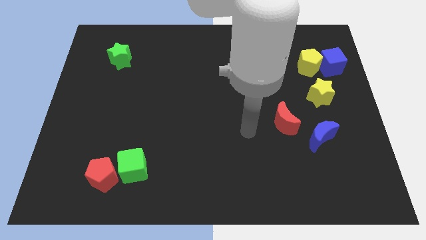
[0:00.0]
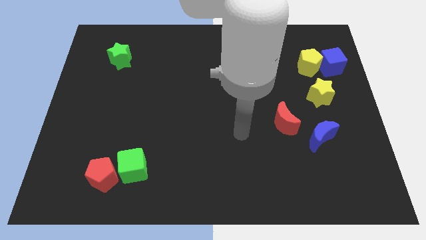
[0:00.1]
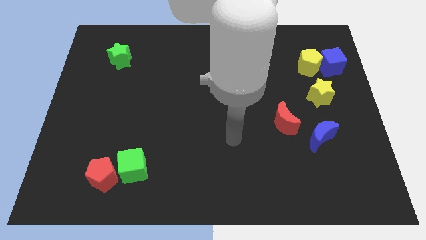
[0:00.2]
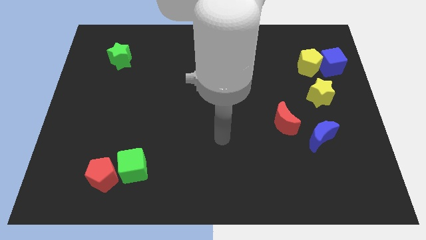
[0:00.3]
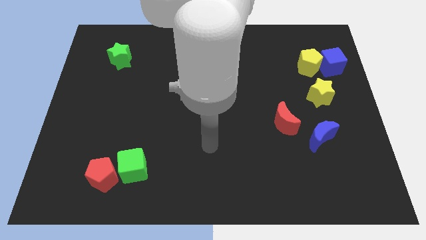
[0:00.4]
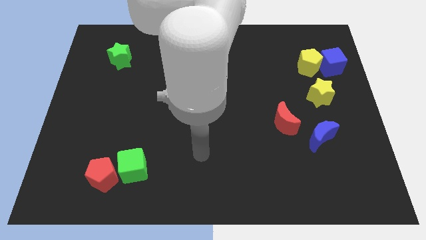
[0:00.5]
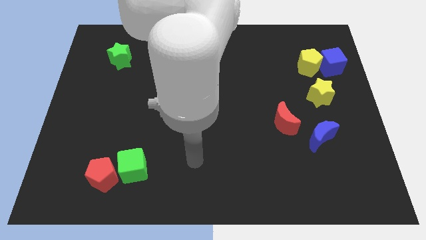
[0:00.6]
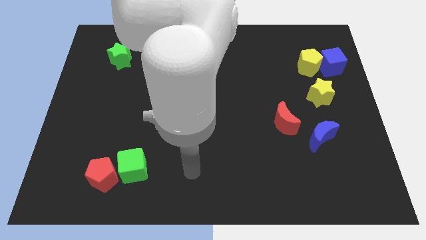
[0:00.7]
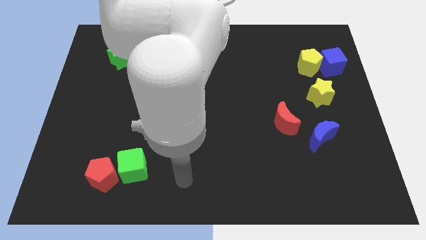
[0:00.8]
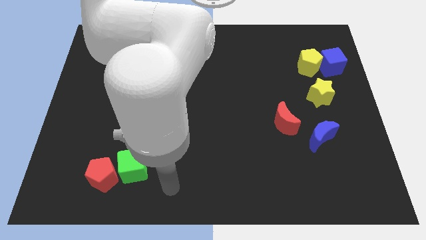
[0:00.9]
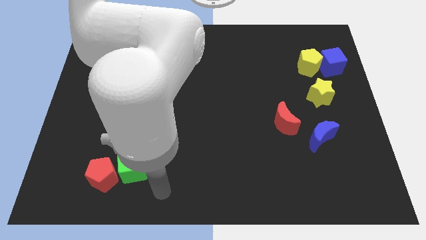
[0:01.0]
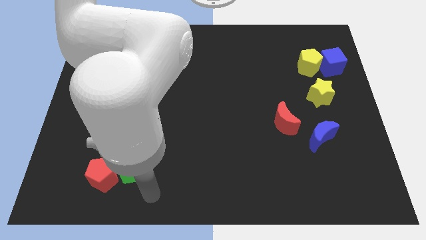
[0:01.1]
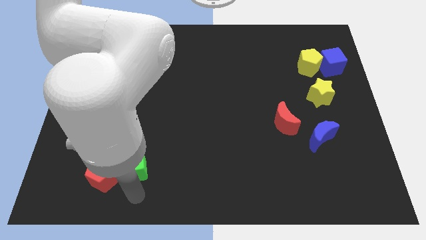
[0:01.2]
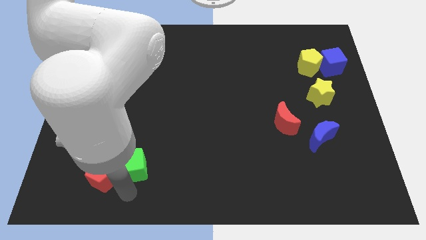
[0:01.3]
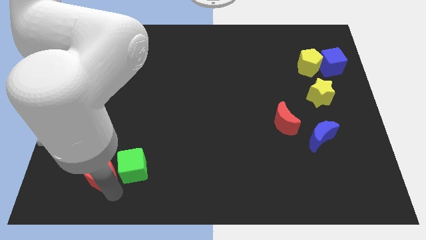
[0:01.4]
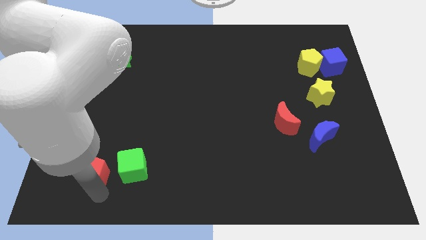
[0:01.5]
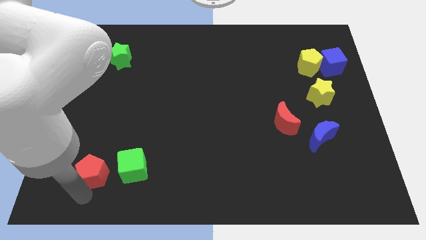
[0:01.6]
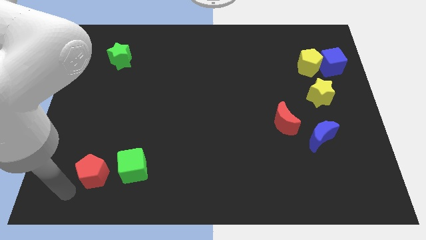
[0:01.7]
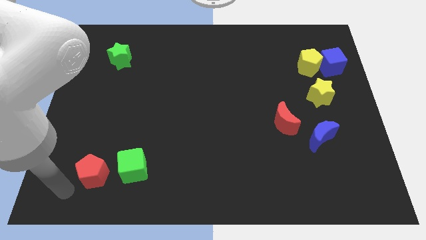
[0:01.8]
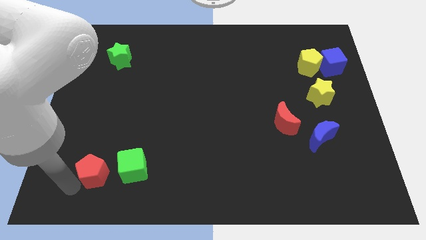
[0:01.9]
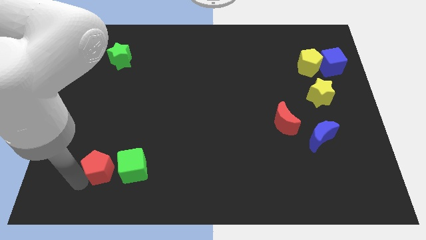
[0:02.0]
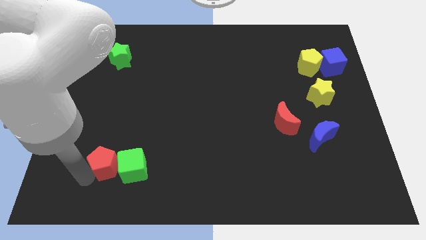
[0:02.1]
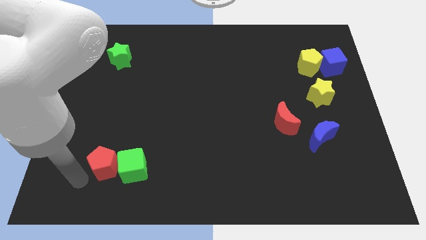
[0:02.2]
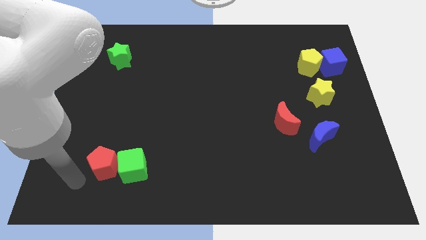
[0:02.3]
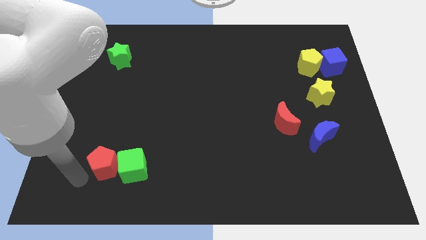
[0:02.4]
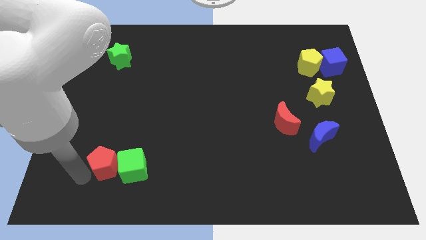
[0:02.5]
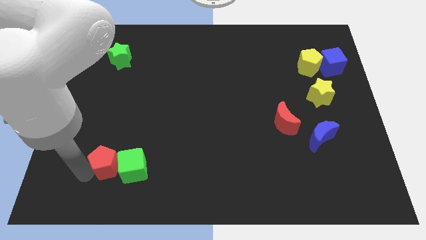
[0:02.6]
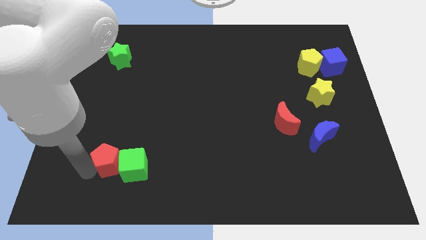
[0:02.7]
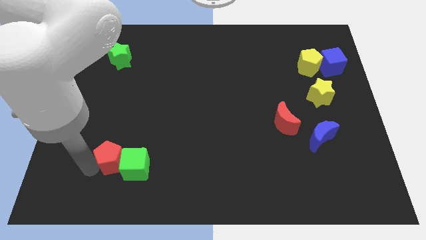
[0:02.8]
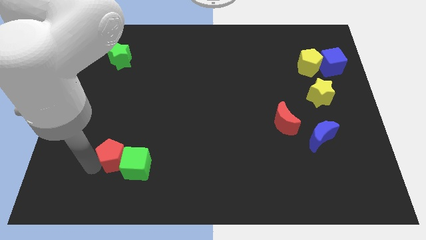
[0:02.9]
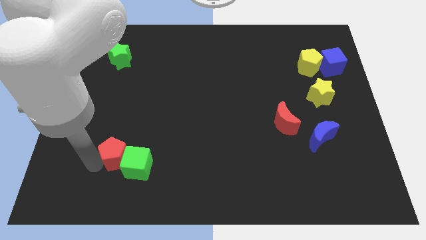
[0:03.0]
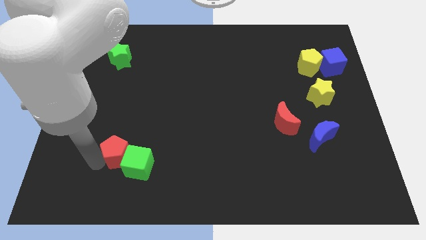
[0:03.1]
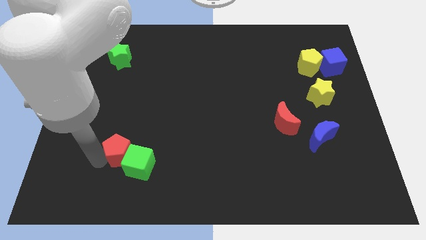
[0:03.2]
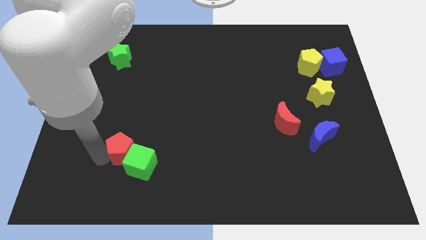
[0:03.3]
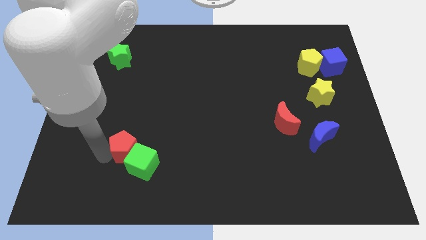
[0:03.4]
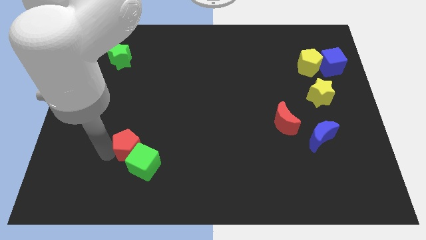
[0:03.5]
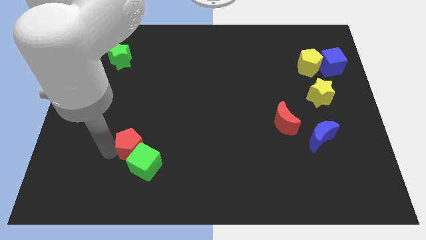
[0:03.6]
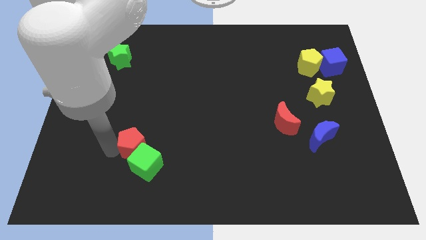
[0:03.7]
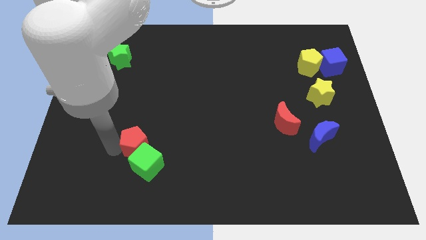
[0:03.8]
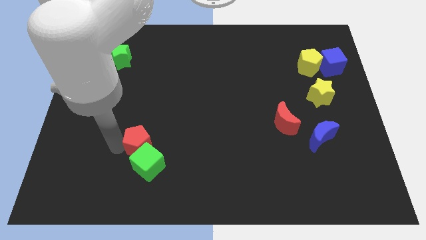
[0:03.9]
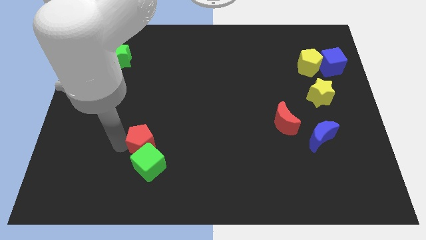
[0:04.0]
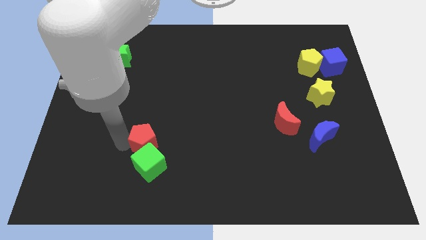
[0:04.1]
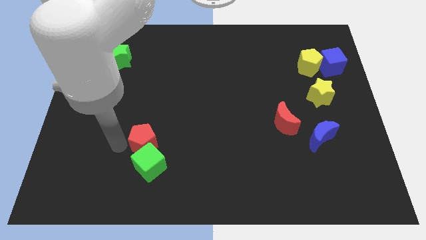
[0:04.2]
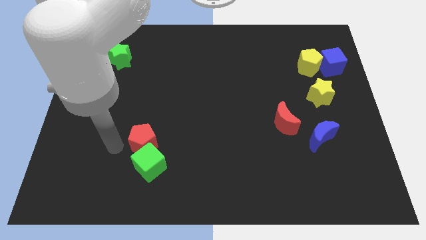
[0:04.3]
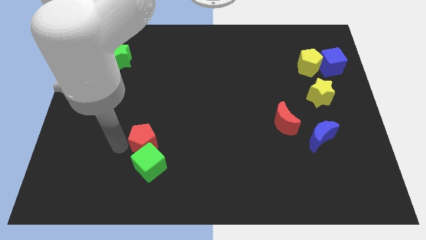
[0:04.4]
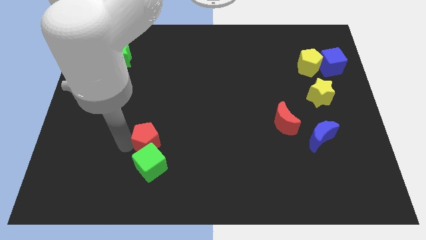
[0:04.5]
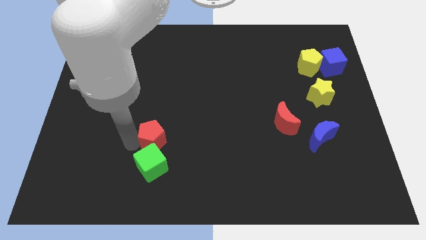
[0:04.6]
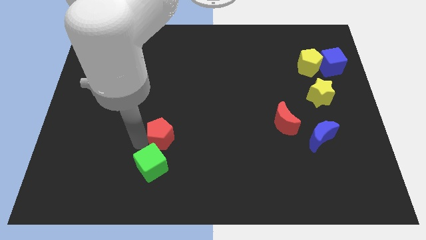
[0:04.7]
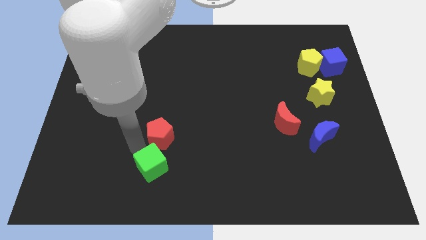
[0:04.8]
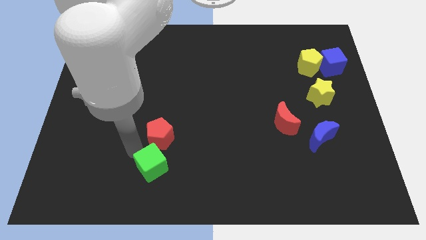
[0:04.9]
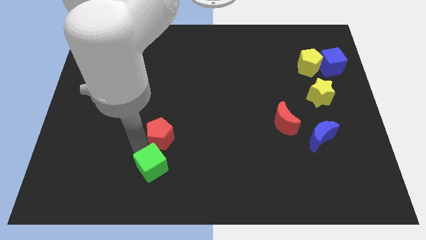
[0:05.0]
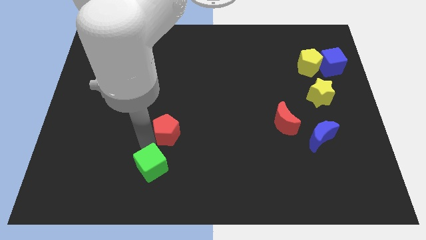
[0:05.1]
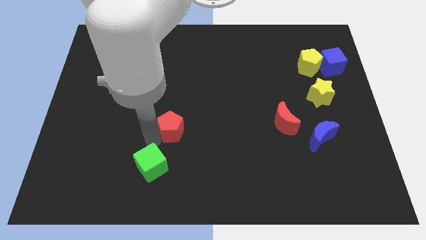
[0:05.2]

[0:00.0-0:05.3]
push the red pentagon to the center of the board

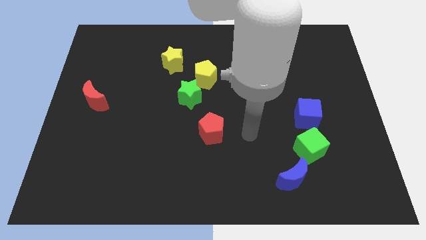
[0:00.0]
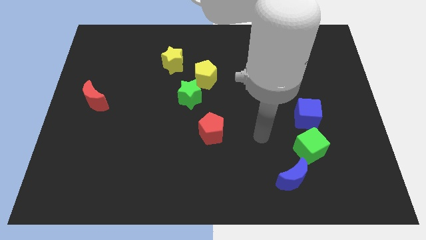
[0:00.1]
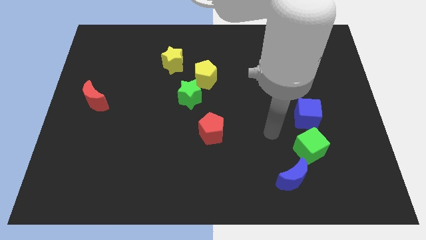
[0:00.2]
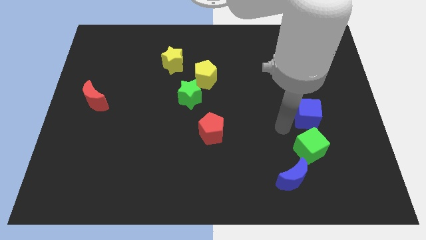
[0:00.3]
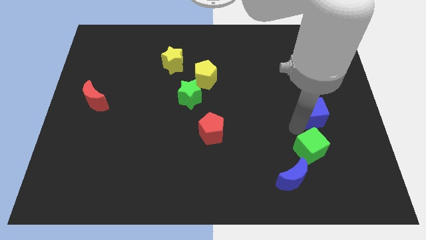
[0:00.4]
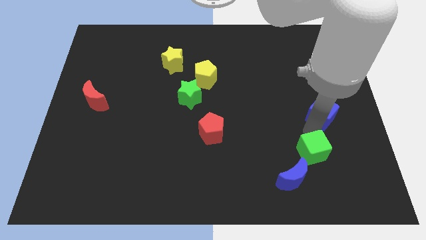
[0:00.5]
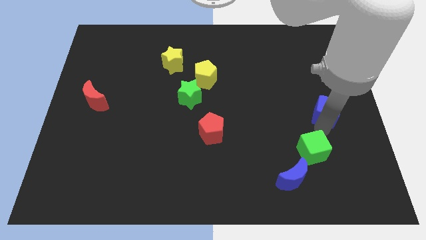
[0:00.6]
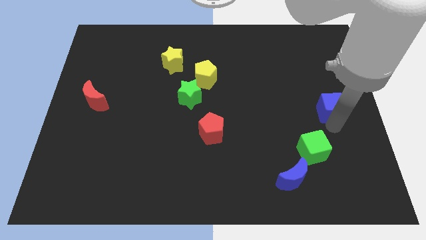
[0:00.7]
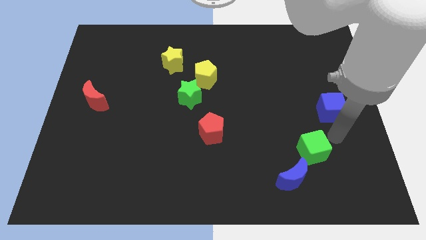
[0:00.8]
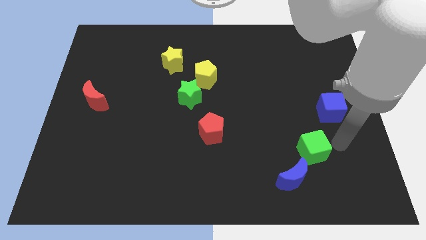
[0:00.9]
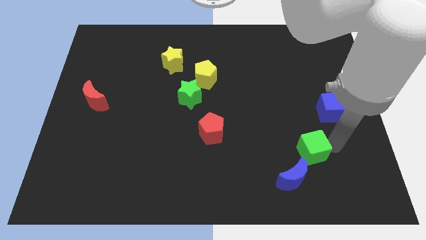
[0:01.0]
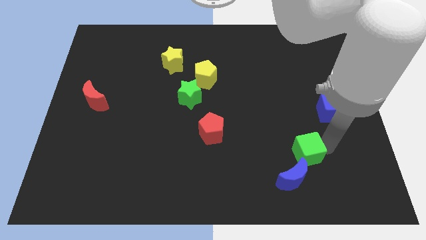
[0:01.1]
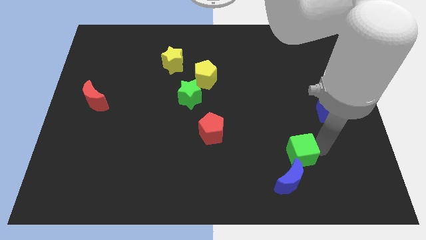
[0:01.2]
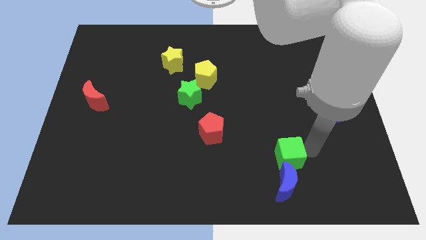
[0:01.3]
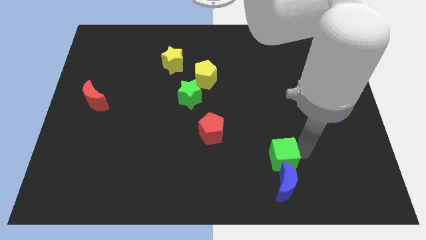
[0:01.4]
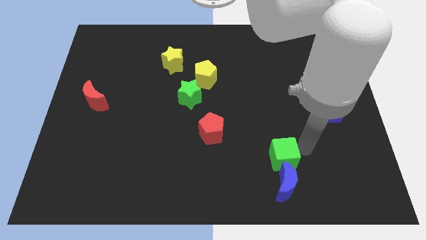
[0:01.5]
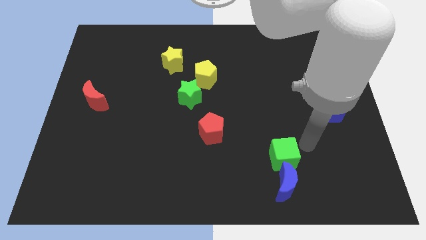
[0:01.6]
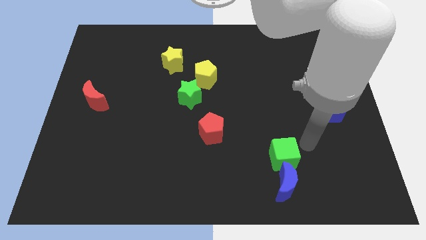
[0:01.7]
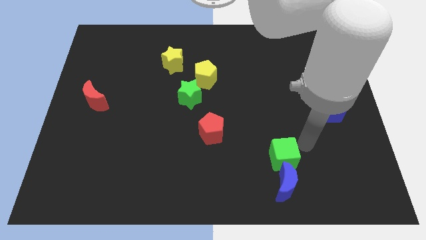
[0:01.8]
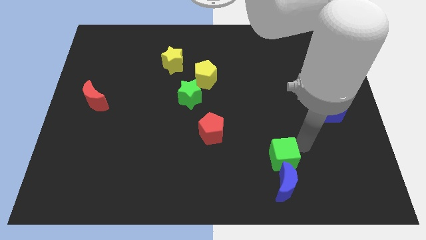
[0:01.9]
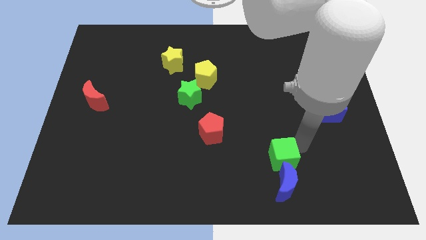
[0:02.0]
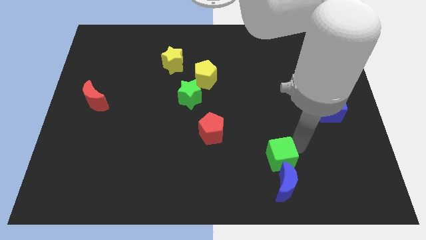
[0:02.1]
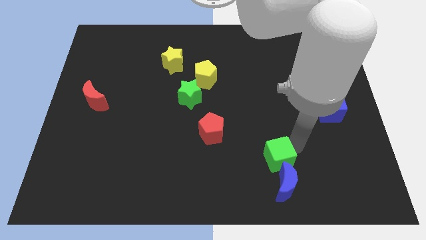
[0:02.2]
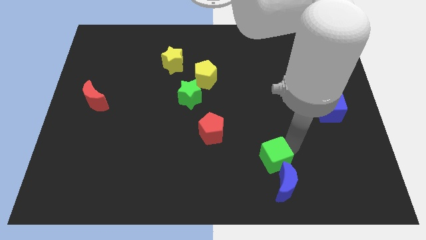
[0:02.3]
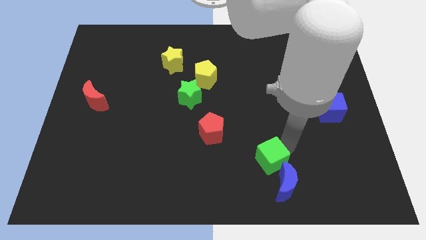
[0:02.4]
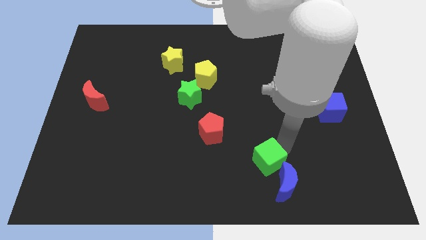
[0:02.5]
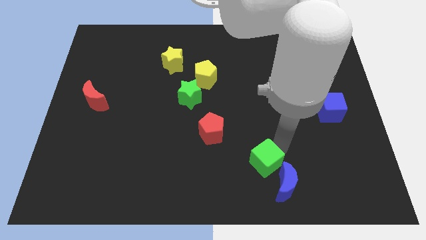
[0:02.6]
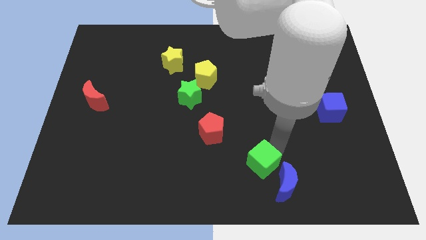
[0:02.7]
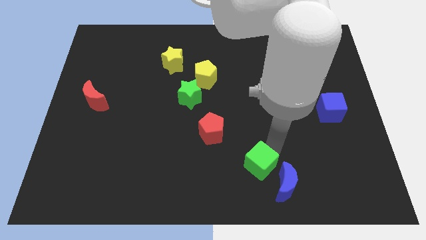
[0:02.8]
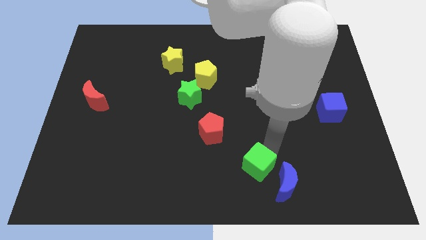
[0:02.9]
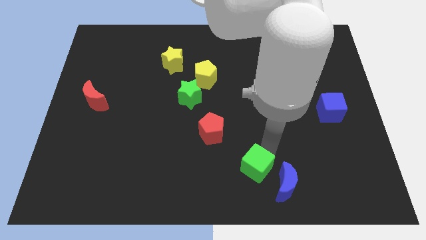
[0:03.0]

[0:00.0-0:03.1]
slide the green cube to the bottom
